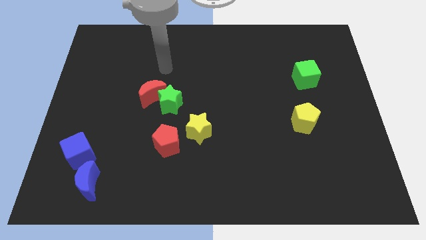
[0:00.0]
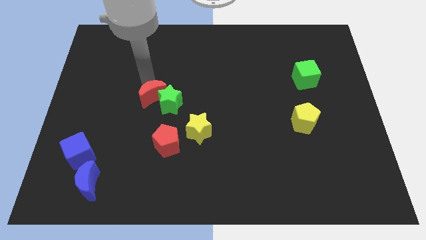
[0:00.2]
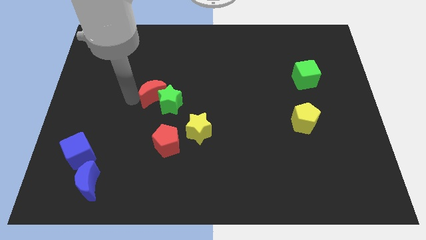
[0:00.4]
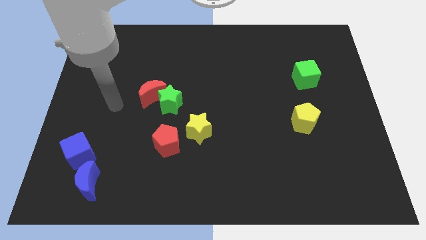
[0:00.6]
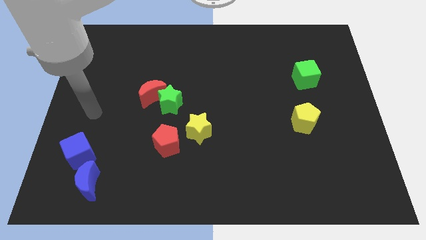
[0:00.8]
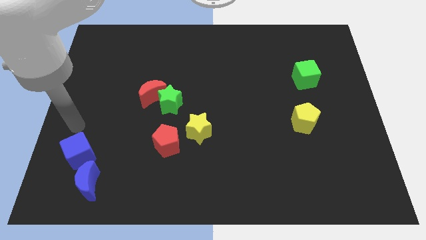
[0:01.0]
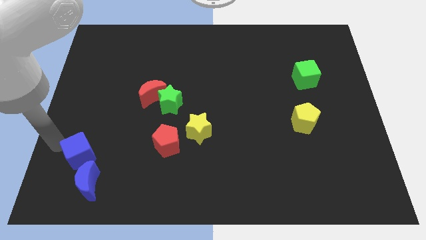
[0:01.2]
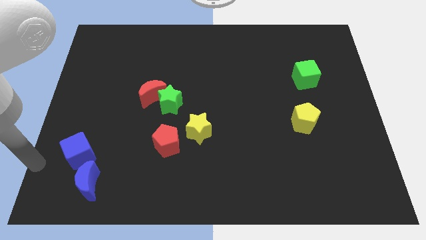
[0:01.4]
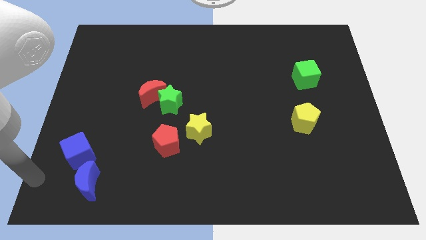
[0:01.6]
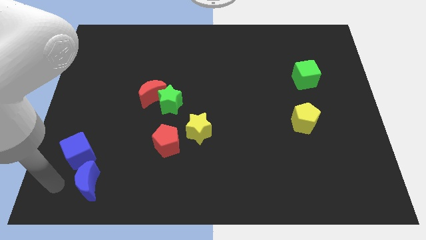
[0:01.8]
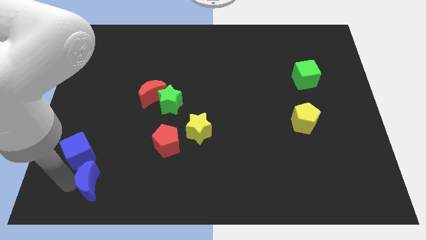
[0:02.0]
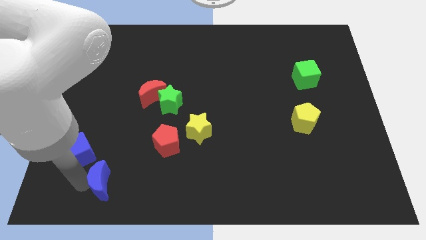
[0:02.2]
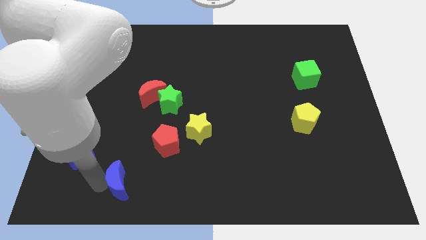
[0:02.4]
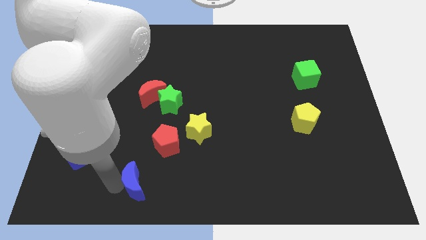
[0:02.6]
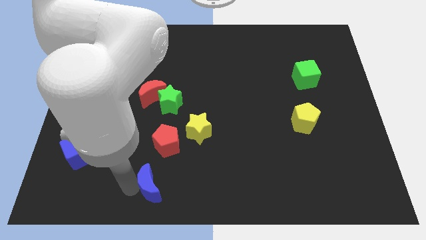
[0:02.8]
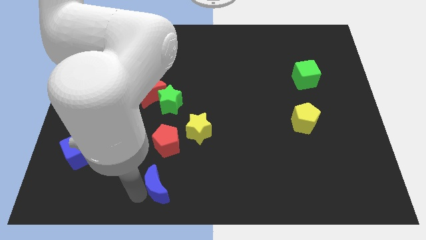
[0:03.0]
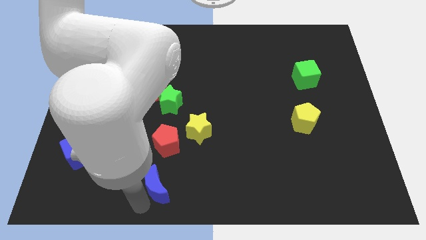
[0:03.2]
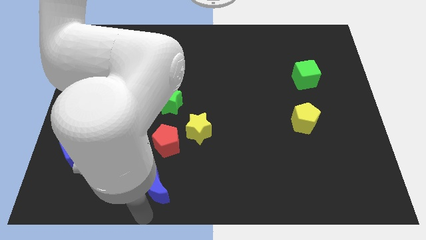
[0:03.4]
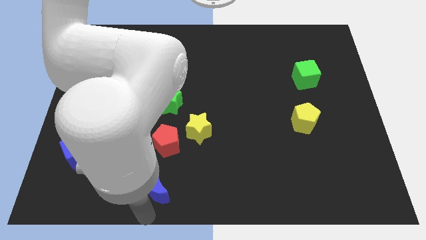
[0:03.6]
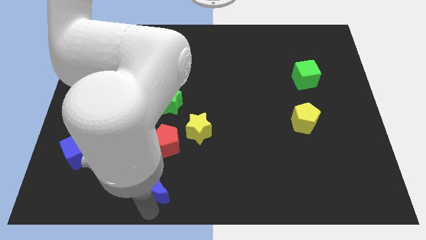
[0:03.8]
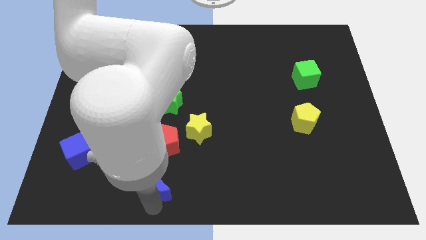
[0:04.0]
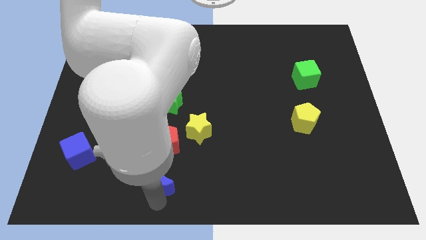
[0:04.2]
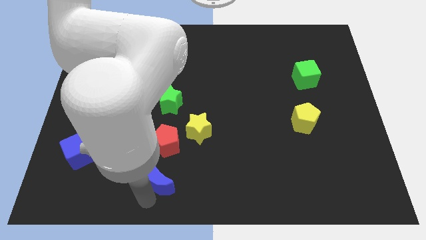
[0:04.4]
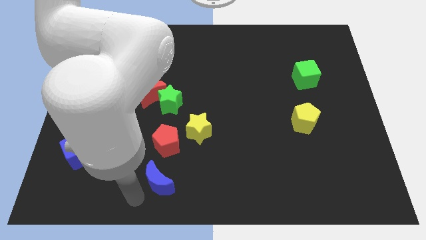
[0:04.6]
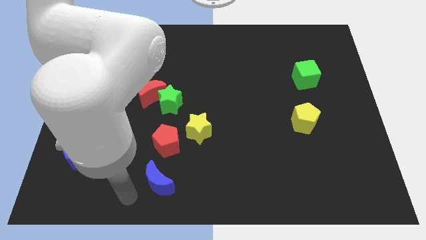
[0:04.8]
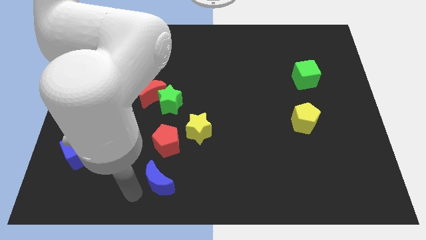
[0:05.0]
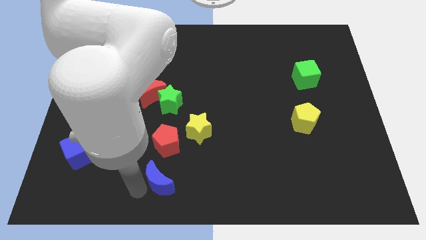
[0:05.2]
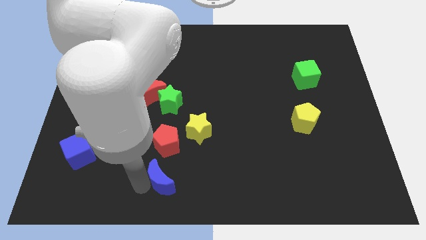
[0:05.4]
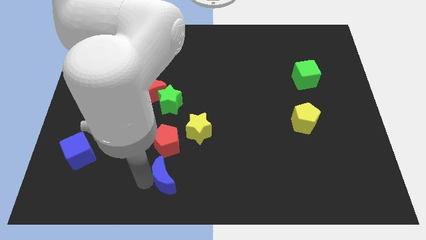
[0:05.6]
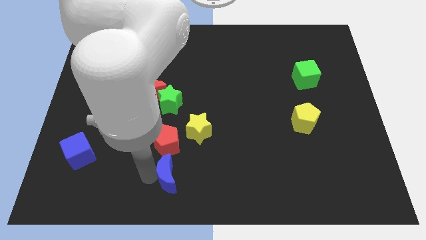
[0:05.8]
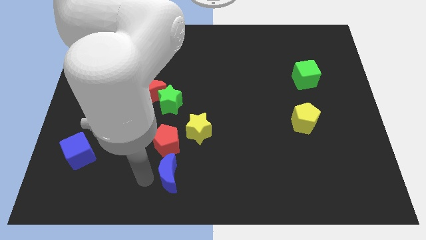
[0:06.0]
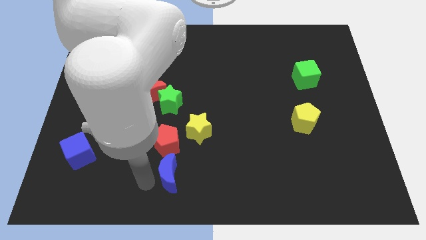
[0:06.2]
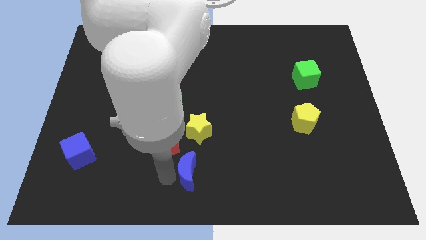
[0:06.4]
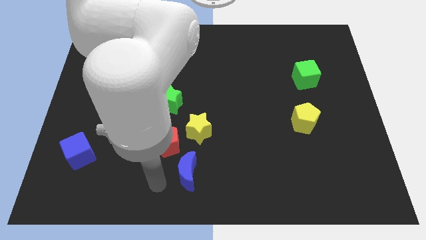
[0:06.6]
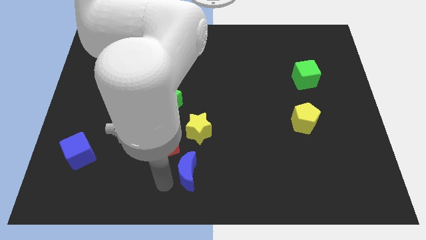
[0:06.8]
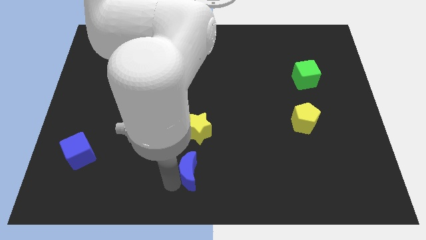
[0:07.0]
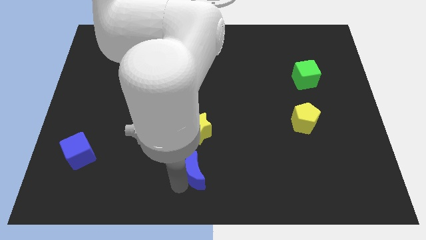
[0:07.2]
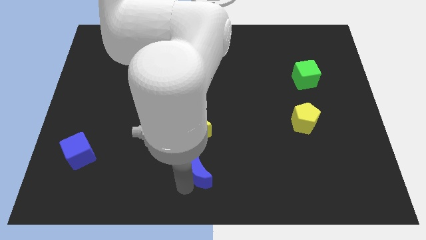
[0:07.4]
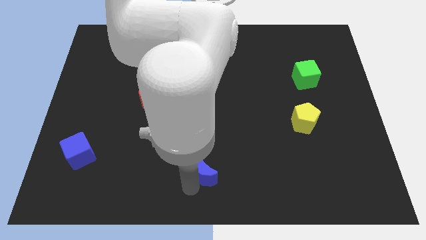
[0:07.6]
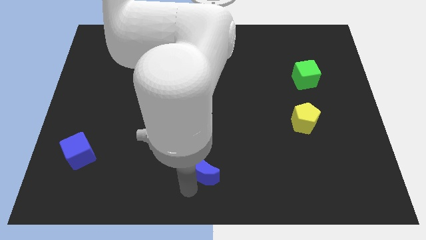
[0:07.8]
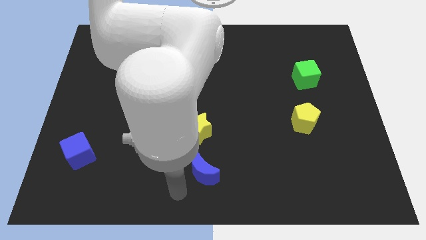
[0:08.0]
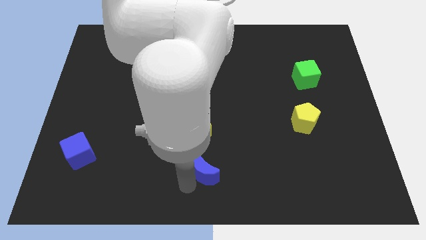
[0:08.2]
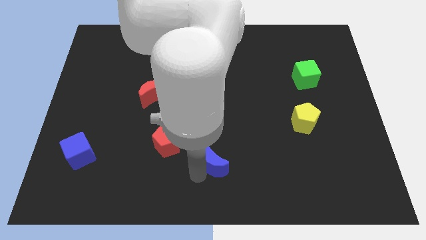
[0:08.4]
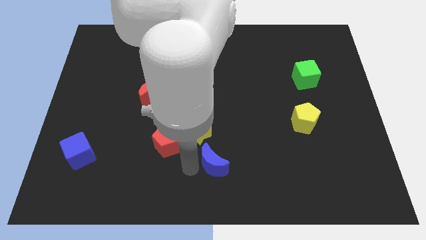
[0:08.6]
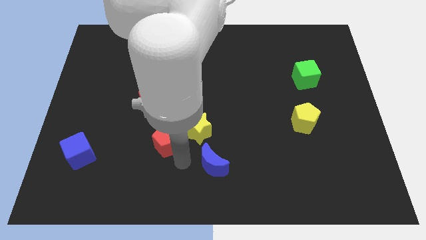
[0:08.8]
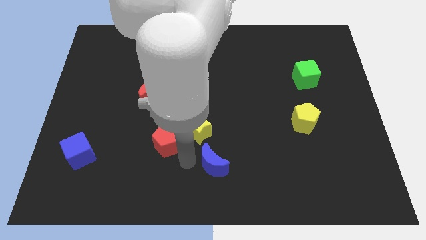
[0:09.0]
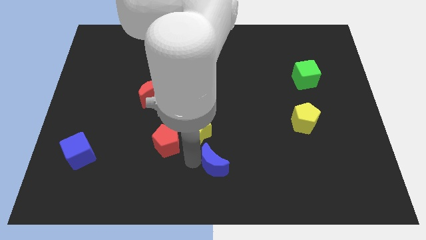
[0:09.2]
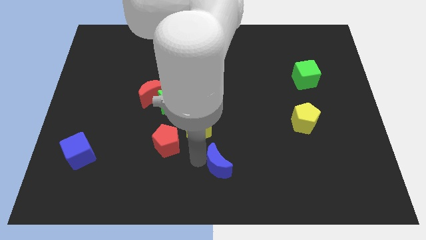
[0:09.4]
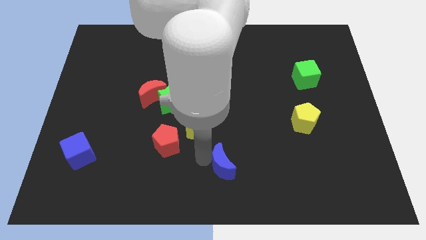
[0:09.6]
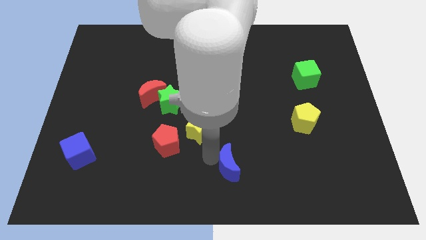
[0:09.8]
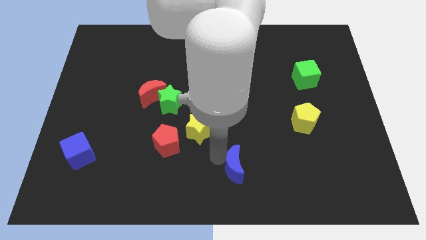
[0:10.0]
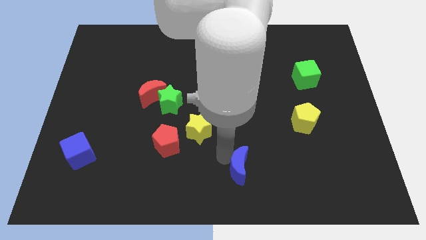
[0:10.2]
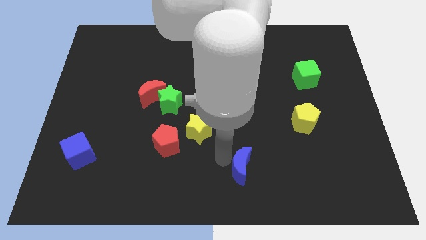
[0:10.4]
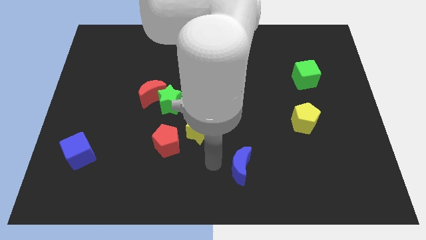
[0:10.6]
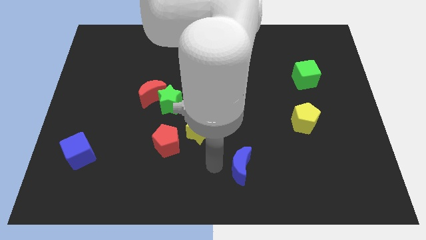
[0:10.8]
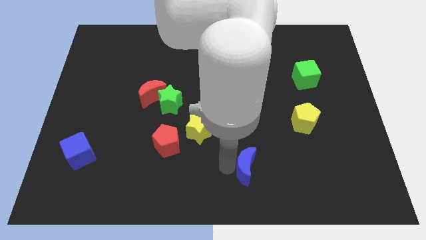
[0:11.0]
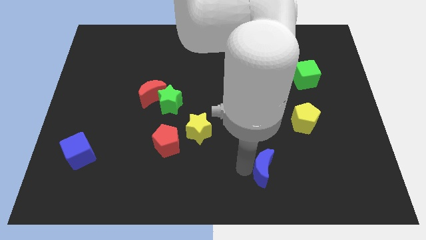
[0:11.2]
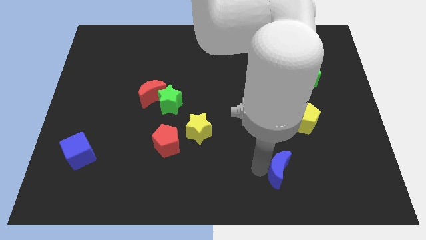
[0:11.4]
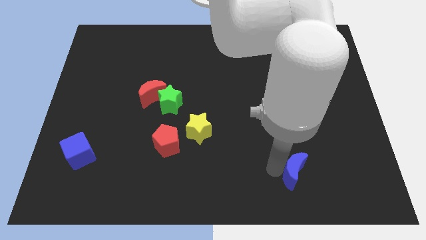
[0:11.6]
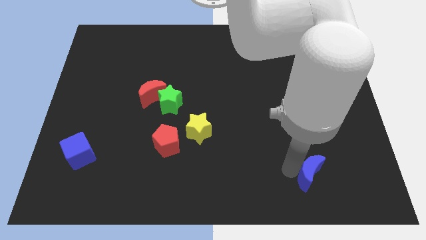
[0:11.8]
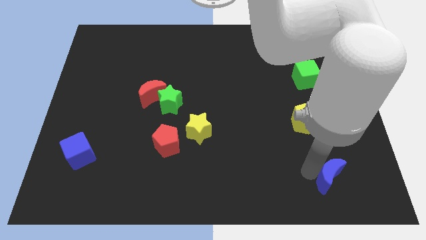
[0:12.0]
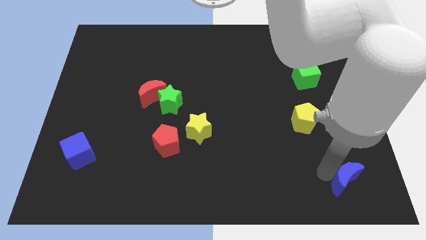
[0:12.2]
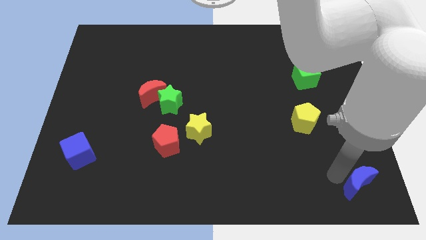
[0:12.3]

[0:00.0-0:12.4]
slide the blue moon to the bottom right corner

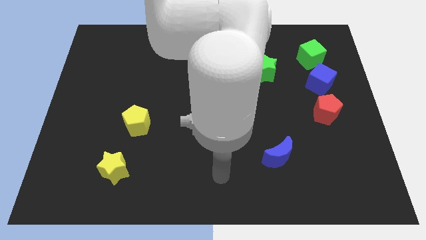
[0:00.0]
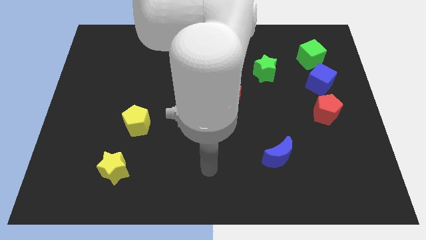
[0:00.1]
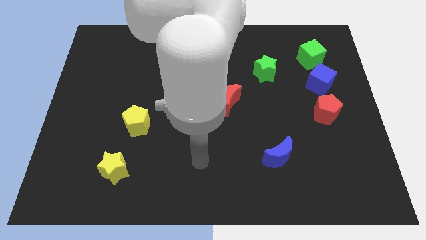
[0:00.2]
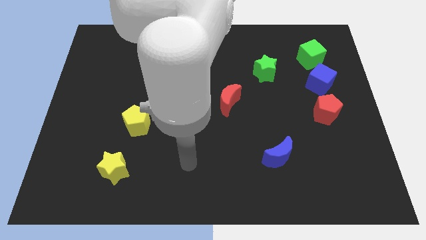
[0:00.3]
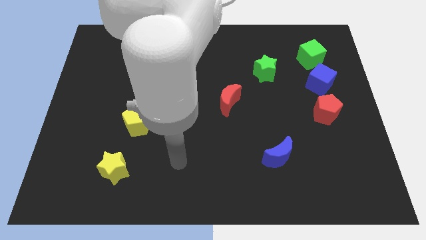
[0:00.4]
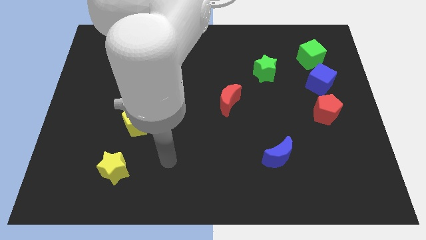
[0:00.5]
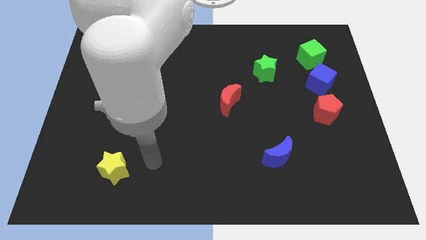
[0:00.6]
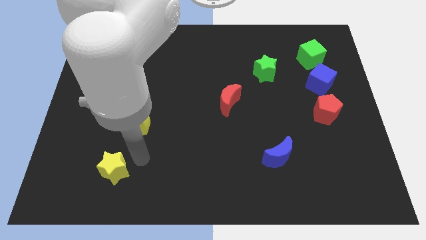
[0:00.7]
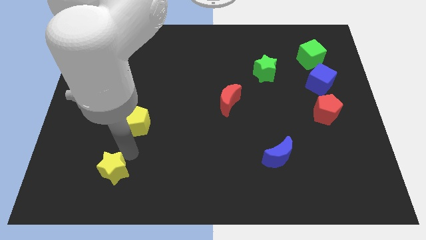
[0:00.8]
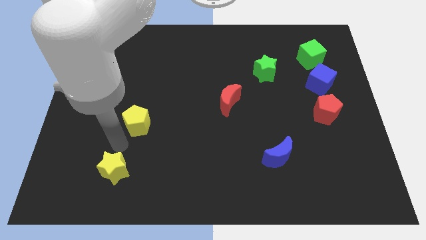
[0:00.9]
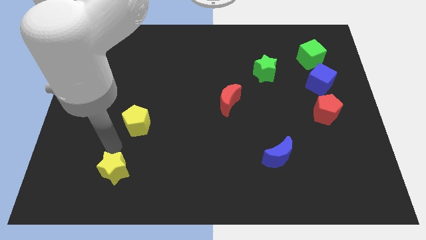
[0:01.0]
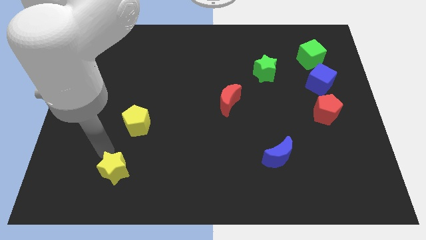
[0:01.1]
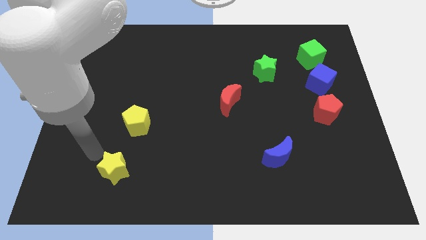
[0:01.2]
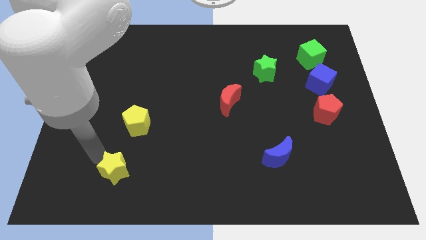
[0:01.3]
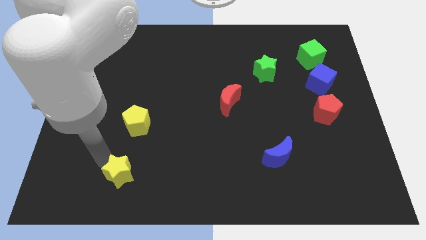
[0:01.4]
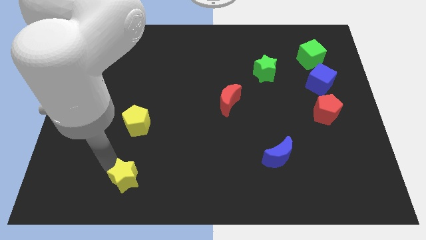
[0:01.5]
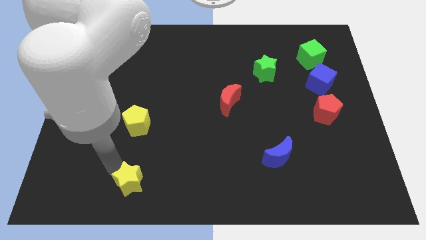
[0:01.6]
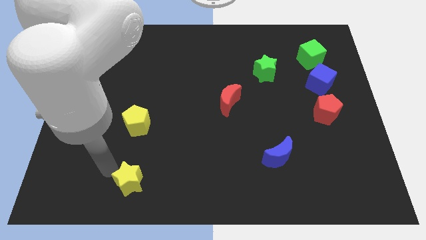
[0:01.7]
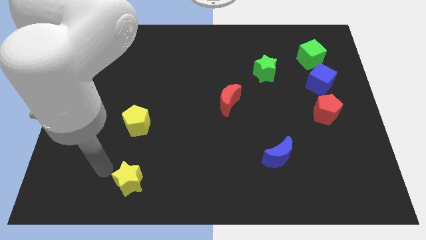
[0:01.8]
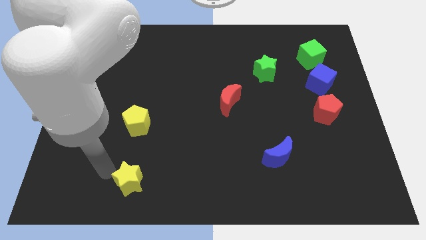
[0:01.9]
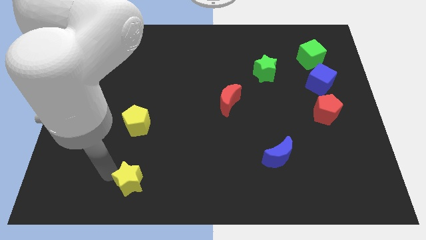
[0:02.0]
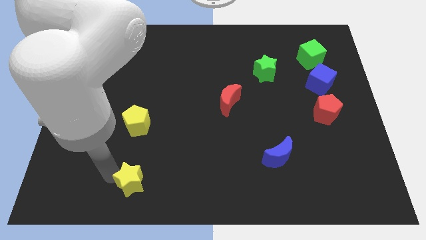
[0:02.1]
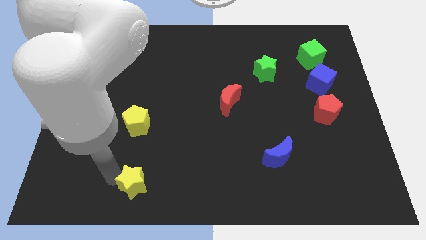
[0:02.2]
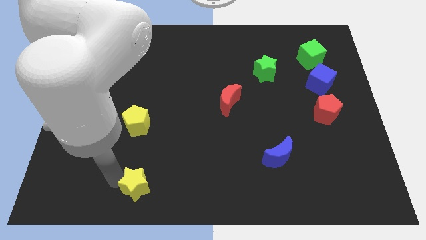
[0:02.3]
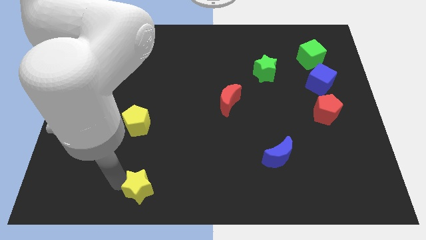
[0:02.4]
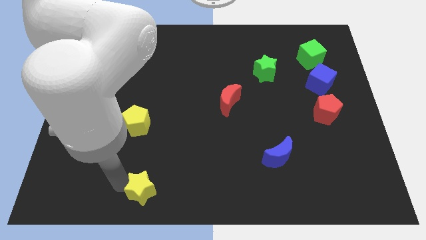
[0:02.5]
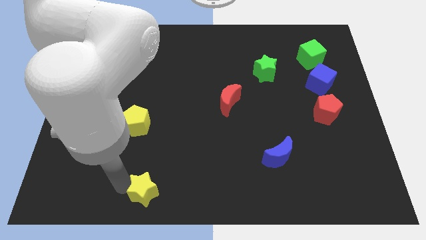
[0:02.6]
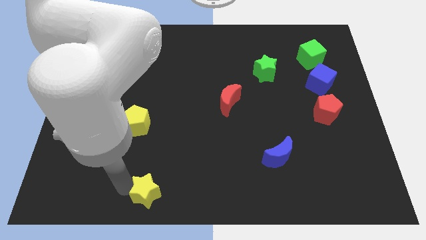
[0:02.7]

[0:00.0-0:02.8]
put the yellow star to the bottom
